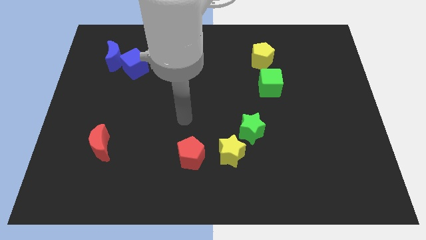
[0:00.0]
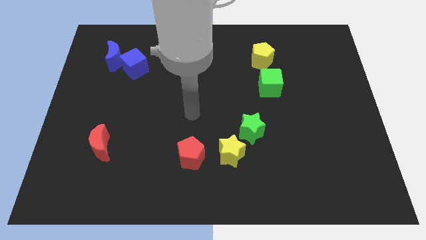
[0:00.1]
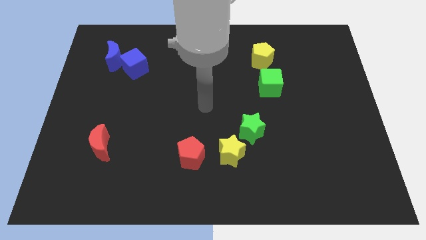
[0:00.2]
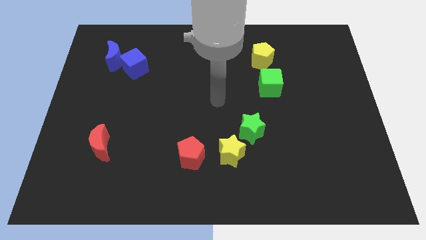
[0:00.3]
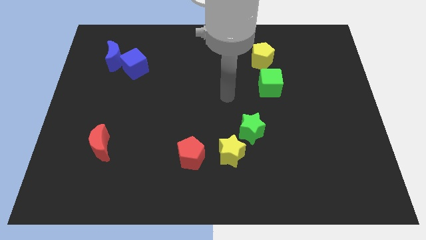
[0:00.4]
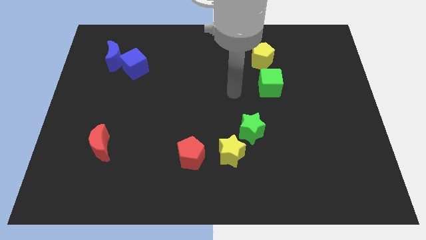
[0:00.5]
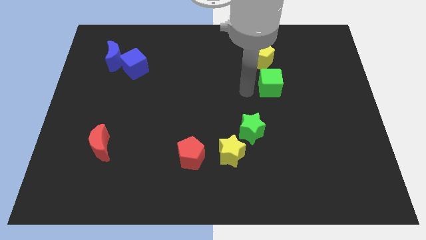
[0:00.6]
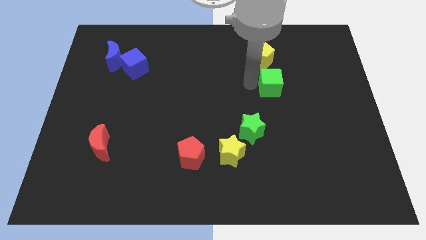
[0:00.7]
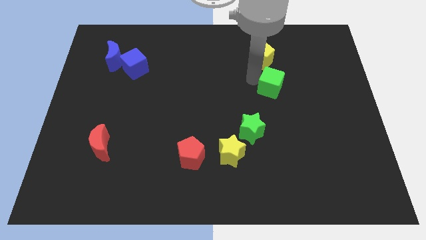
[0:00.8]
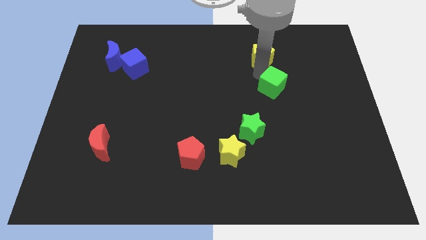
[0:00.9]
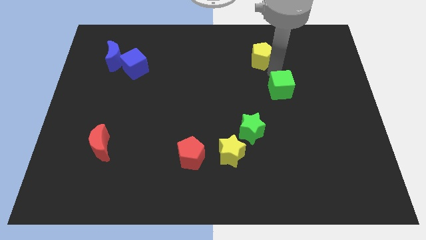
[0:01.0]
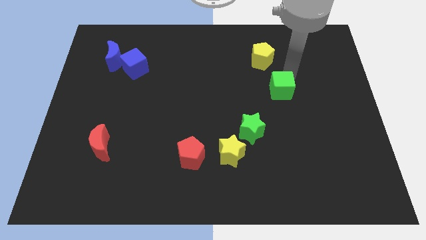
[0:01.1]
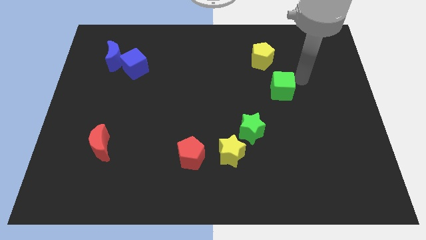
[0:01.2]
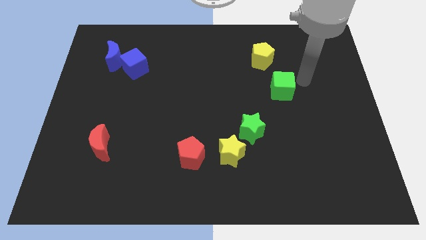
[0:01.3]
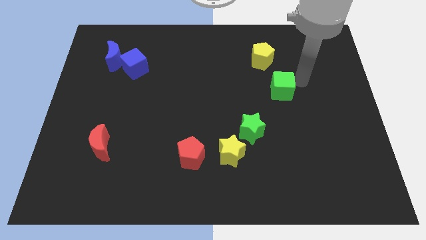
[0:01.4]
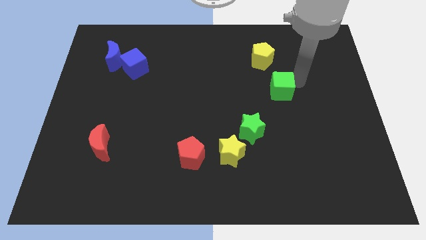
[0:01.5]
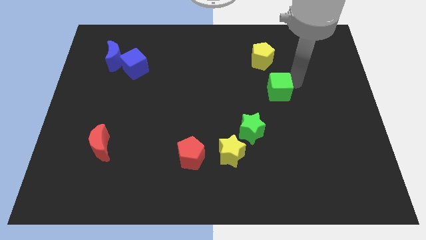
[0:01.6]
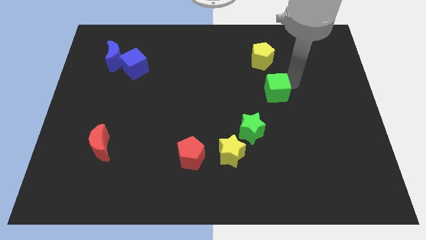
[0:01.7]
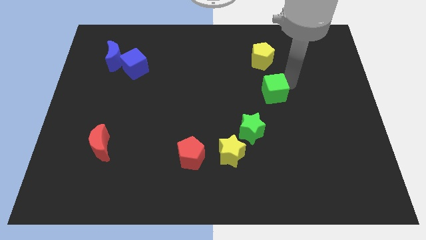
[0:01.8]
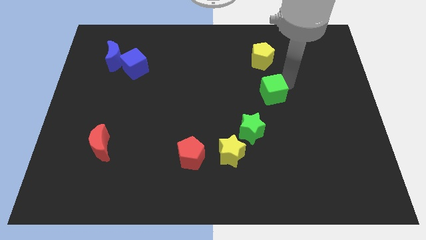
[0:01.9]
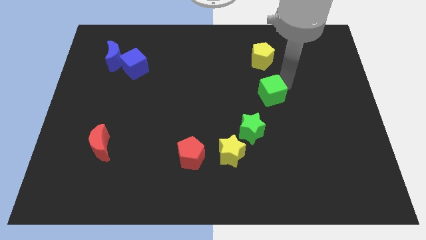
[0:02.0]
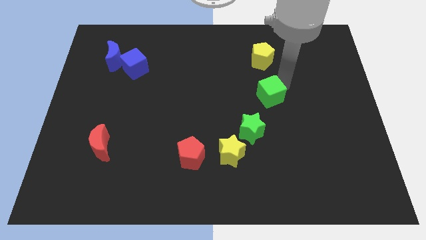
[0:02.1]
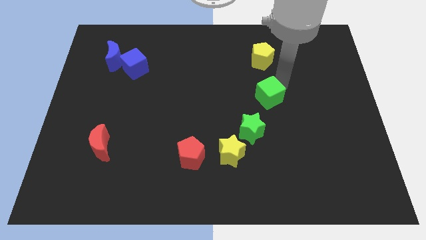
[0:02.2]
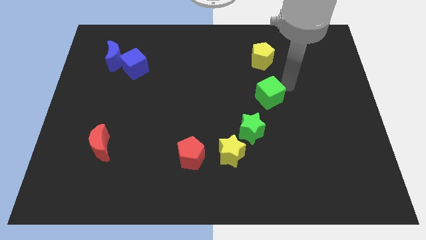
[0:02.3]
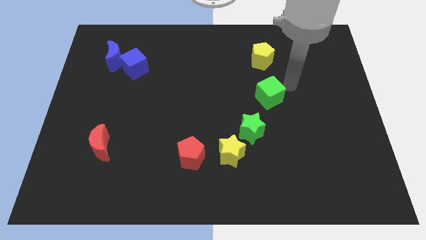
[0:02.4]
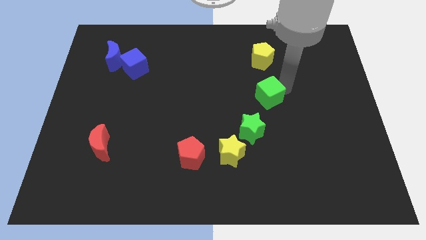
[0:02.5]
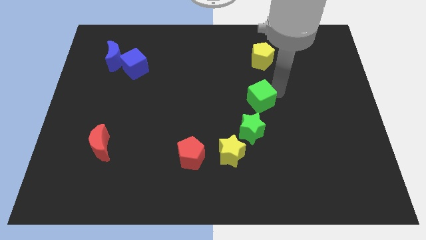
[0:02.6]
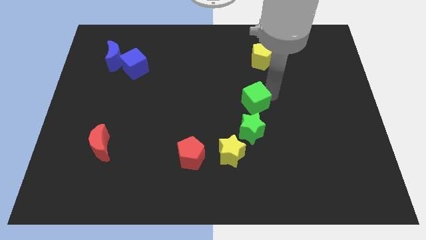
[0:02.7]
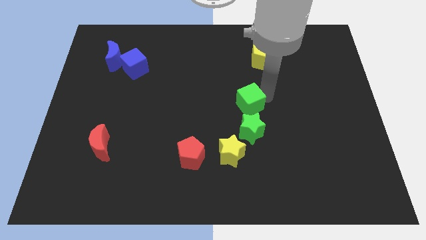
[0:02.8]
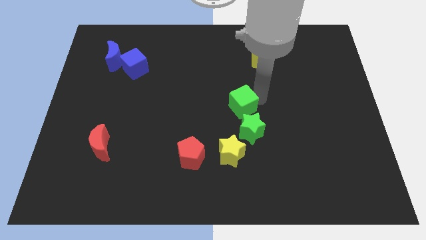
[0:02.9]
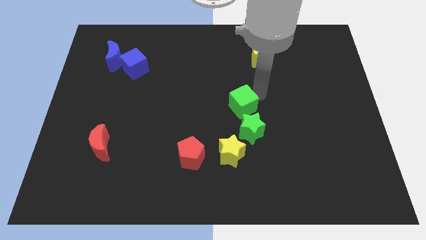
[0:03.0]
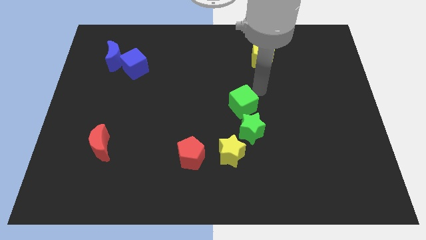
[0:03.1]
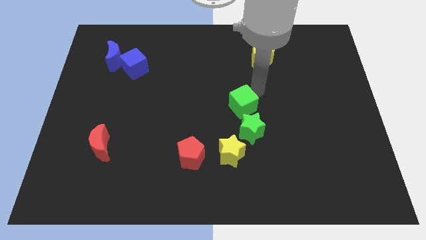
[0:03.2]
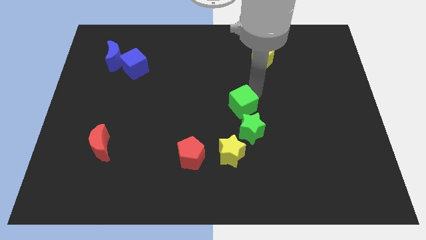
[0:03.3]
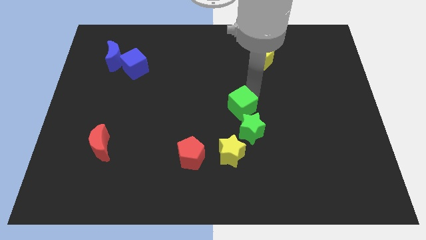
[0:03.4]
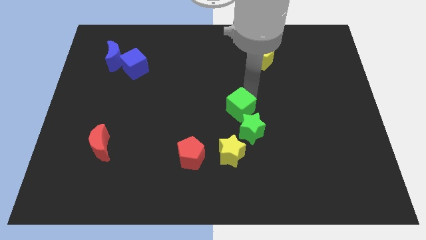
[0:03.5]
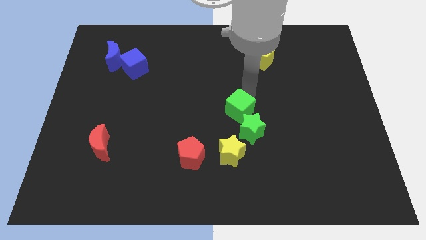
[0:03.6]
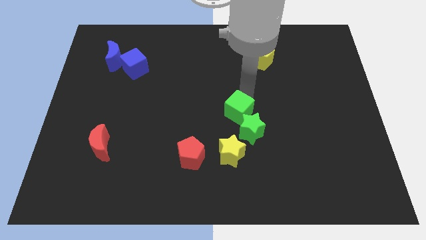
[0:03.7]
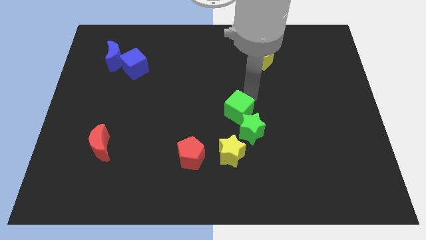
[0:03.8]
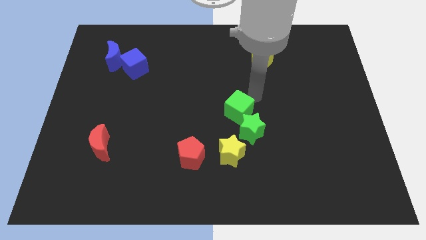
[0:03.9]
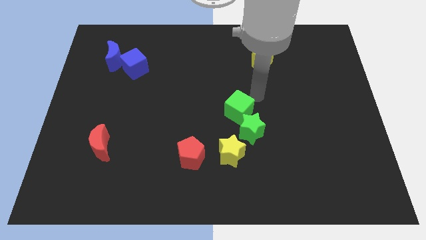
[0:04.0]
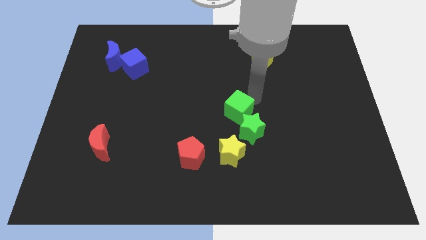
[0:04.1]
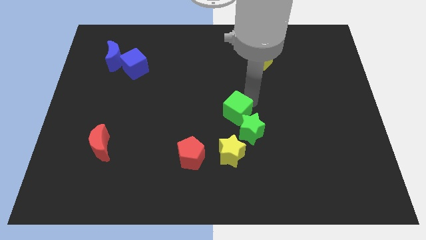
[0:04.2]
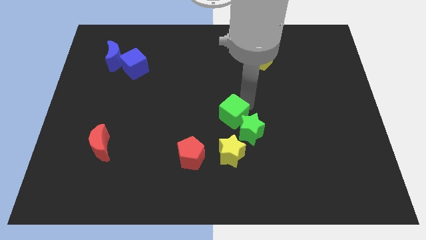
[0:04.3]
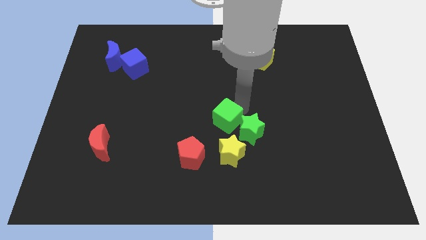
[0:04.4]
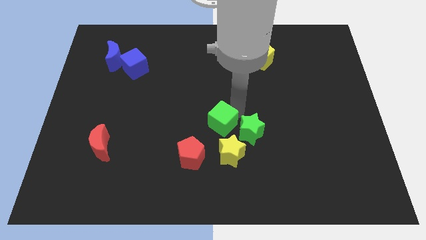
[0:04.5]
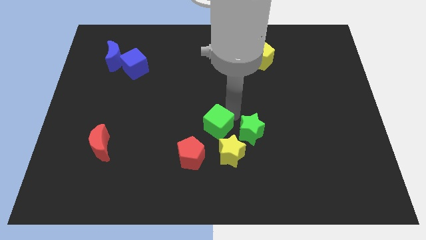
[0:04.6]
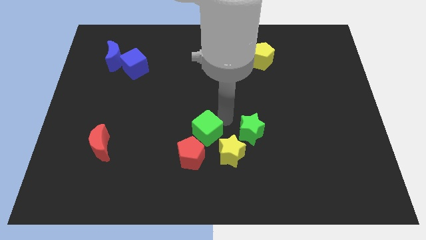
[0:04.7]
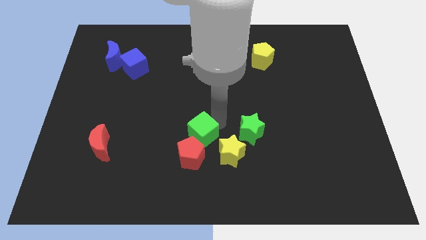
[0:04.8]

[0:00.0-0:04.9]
slide the green cube to the red pentagon

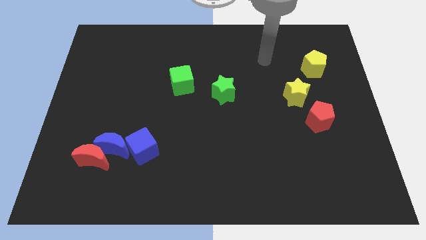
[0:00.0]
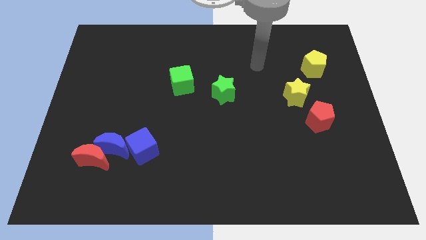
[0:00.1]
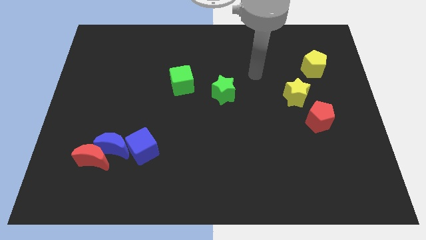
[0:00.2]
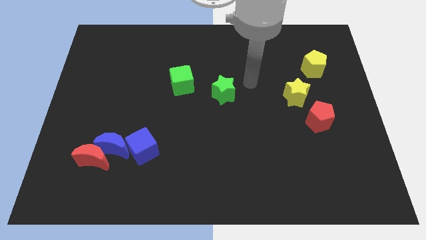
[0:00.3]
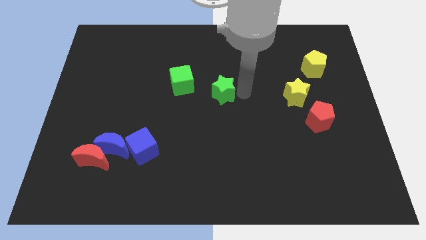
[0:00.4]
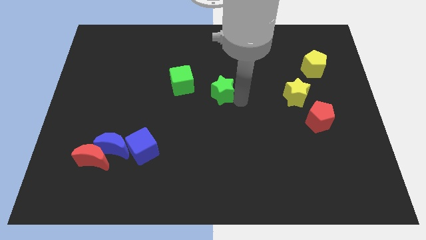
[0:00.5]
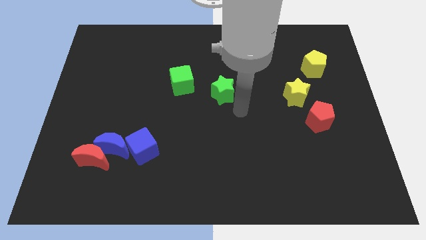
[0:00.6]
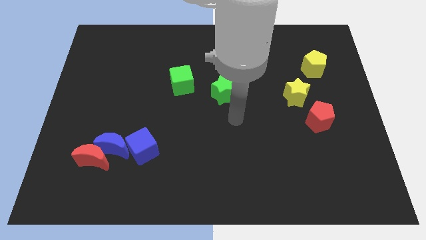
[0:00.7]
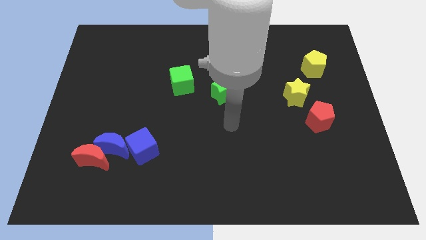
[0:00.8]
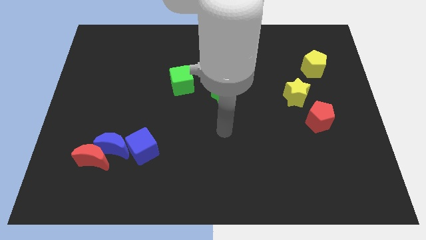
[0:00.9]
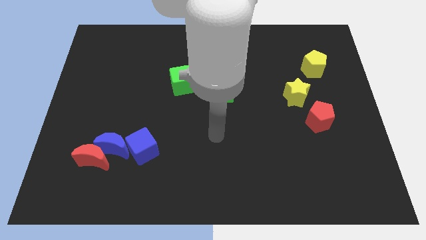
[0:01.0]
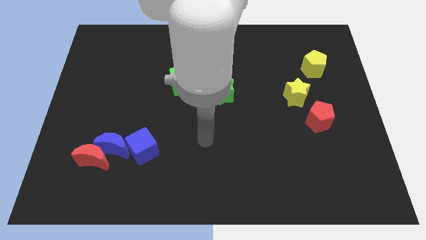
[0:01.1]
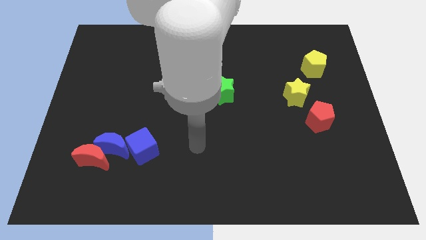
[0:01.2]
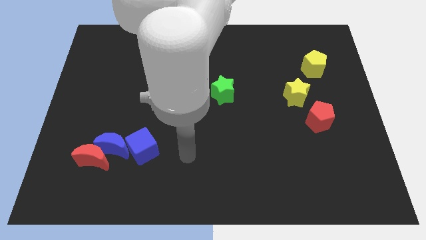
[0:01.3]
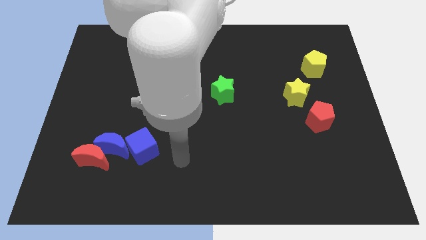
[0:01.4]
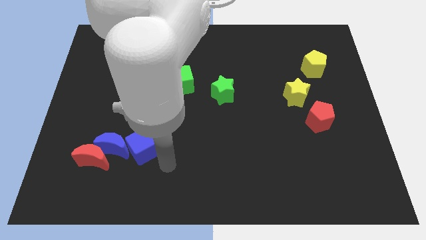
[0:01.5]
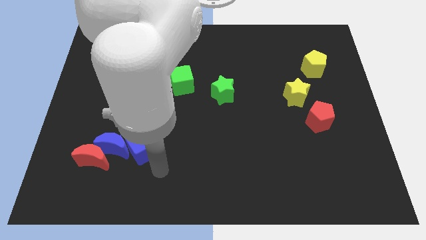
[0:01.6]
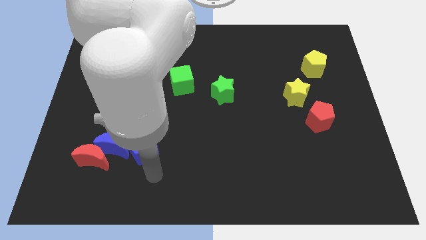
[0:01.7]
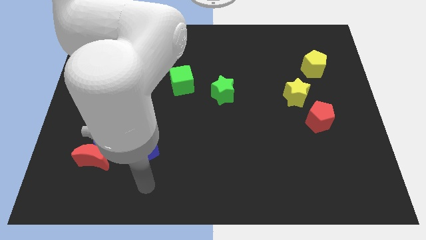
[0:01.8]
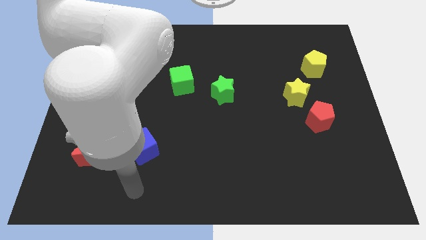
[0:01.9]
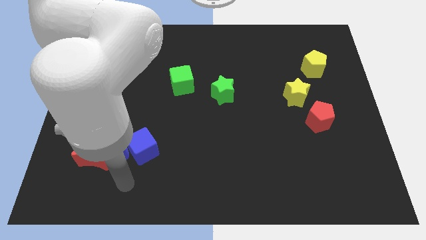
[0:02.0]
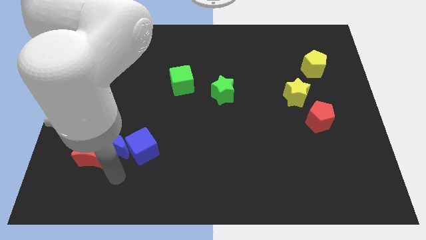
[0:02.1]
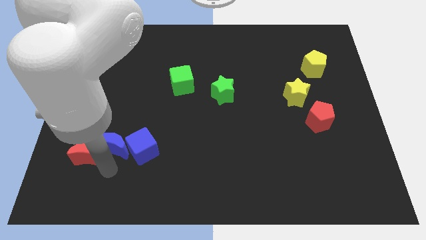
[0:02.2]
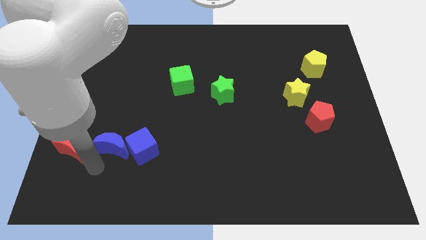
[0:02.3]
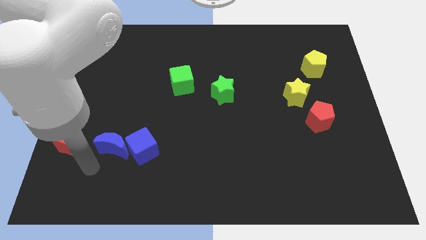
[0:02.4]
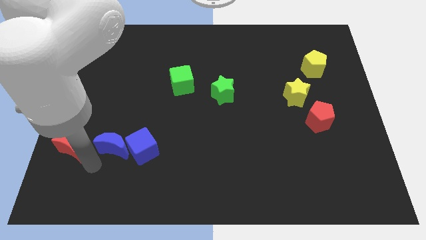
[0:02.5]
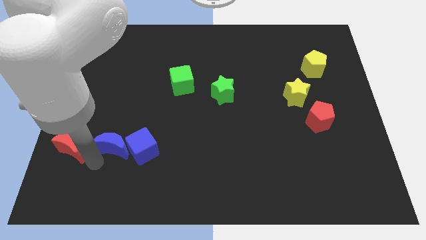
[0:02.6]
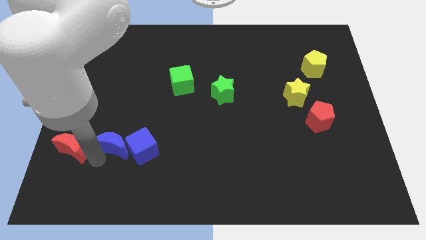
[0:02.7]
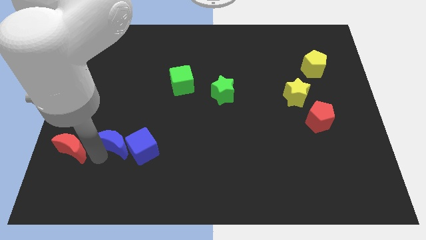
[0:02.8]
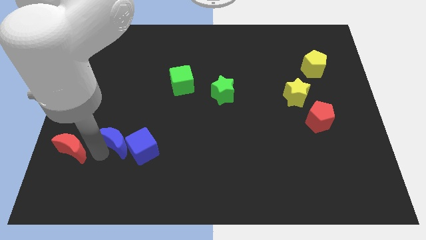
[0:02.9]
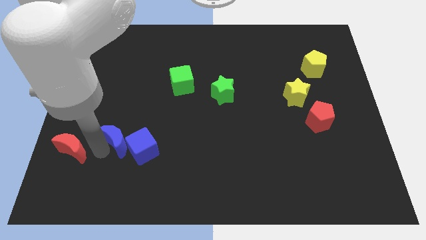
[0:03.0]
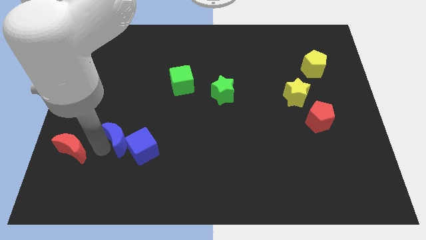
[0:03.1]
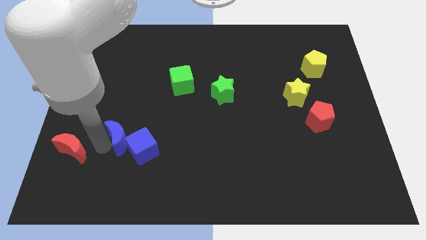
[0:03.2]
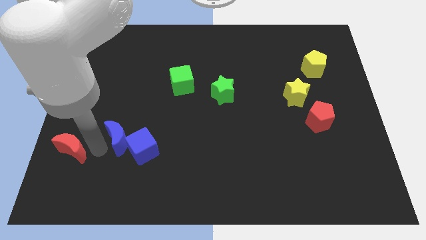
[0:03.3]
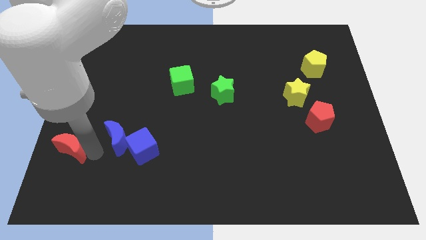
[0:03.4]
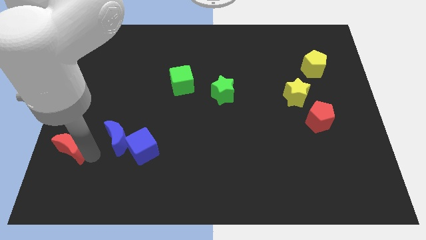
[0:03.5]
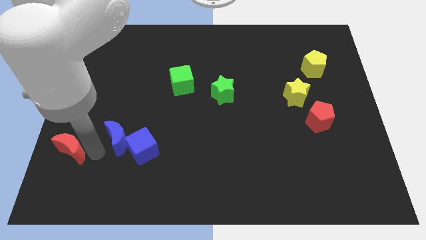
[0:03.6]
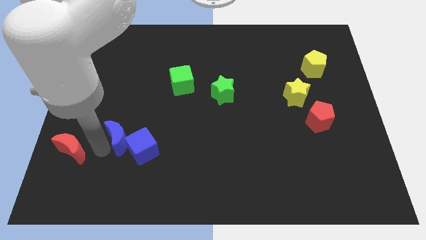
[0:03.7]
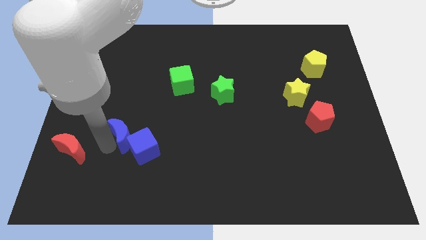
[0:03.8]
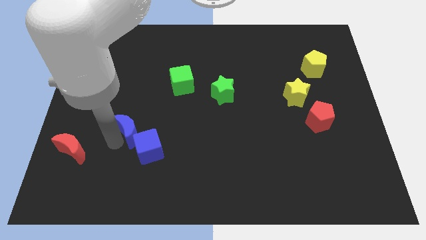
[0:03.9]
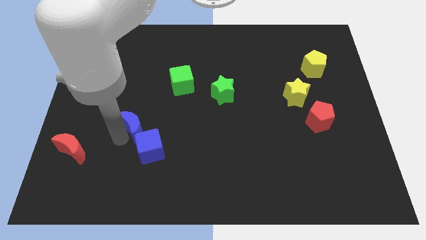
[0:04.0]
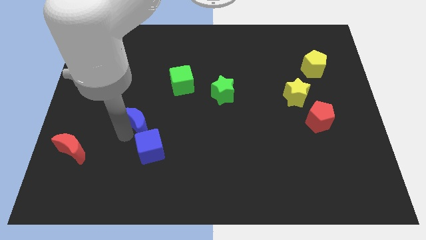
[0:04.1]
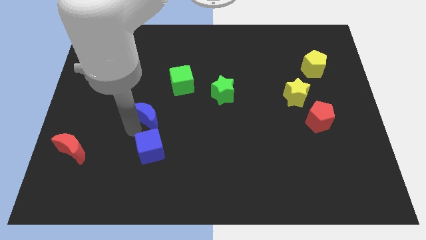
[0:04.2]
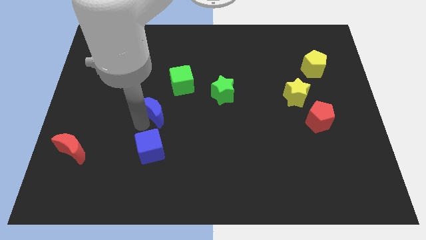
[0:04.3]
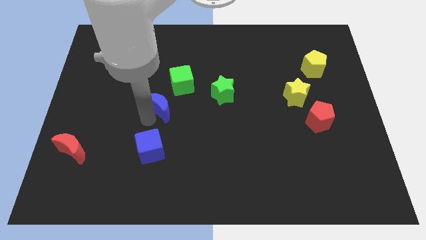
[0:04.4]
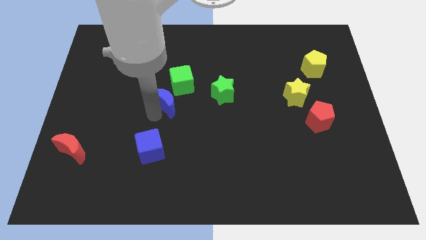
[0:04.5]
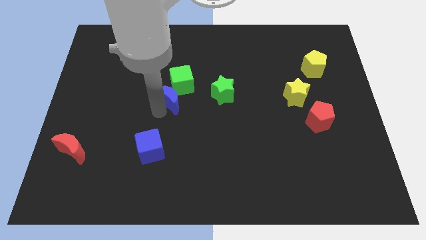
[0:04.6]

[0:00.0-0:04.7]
put the blue moon next to the green cube
